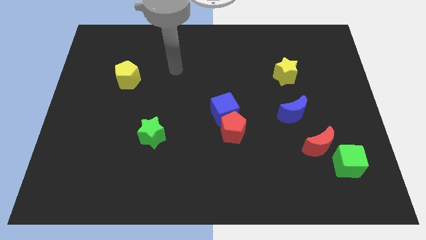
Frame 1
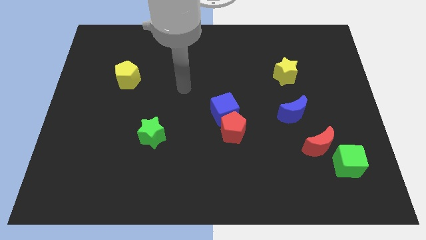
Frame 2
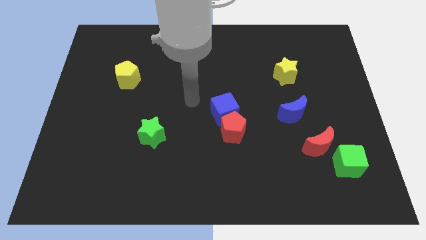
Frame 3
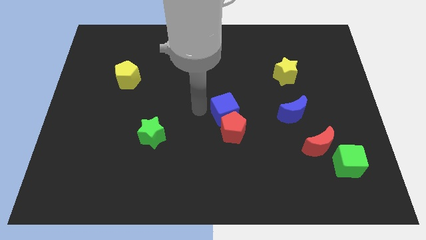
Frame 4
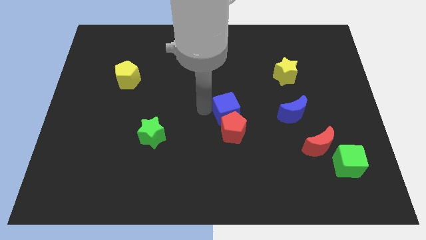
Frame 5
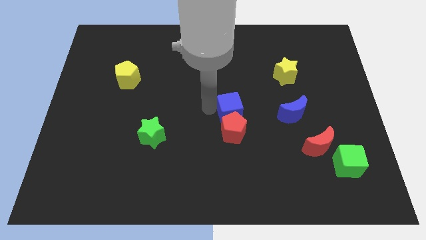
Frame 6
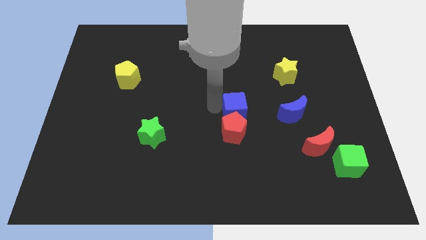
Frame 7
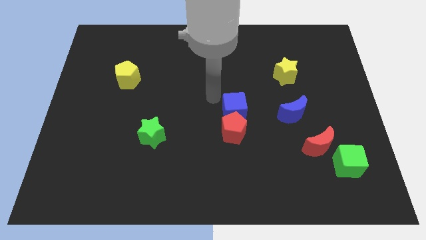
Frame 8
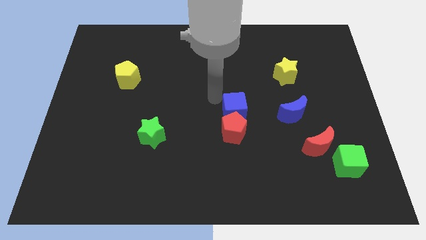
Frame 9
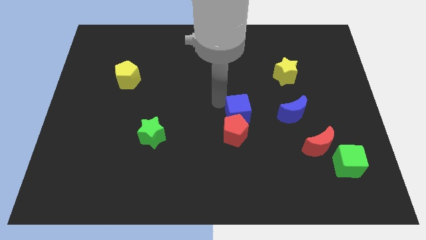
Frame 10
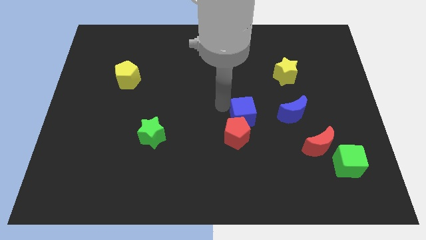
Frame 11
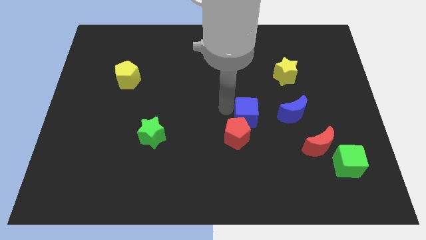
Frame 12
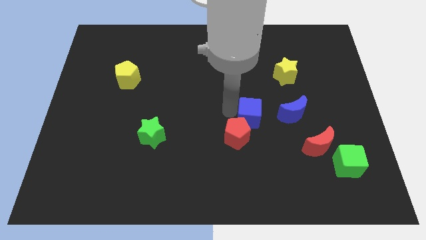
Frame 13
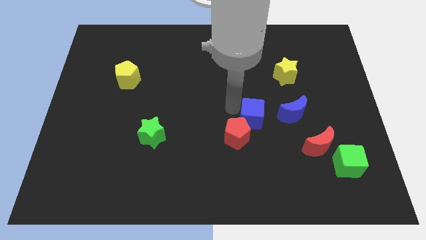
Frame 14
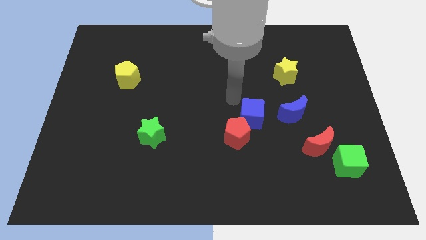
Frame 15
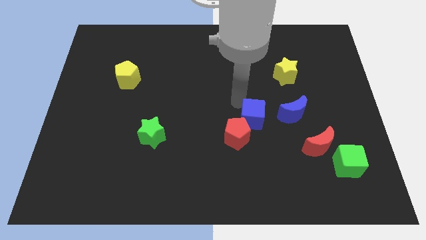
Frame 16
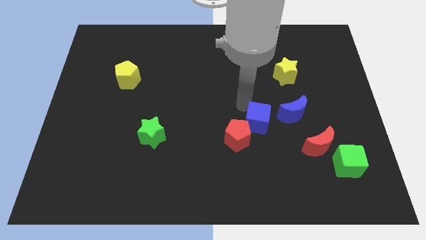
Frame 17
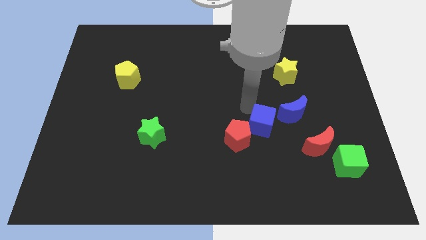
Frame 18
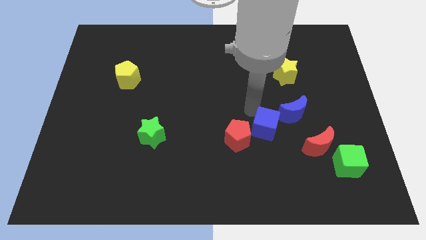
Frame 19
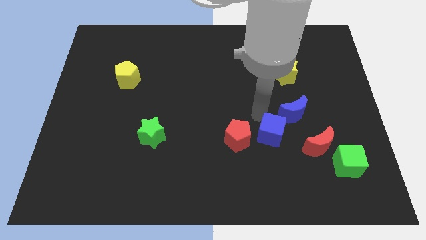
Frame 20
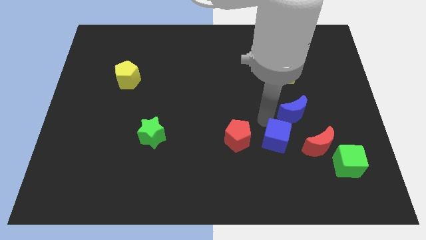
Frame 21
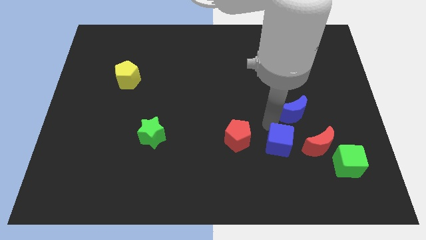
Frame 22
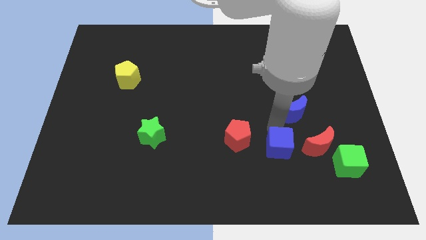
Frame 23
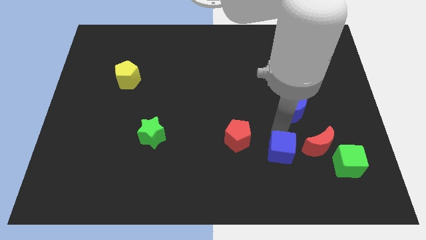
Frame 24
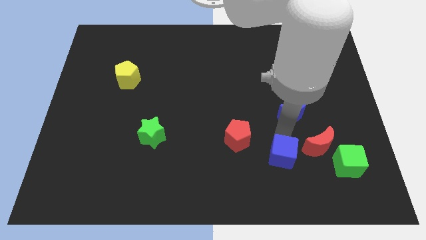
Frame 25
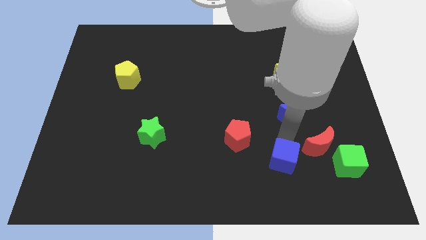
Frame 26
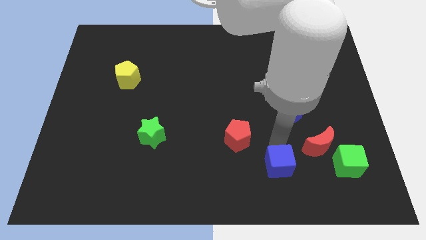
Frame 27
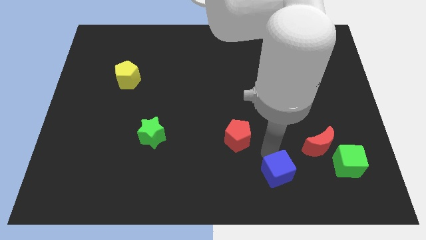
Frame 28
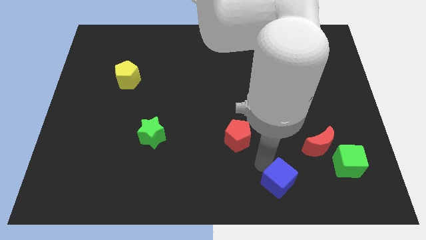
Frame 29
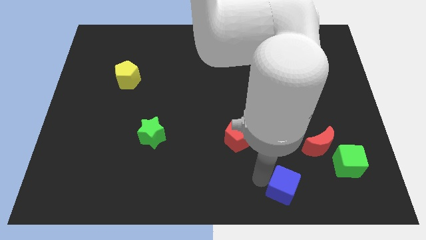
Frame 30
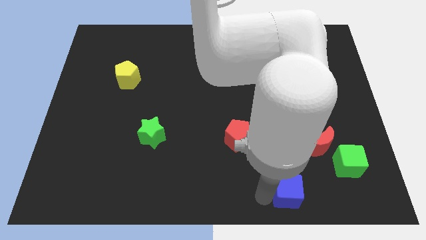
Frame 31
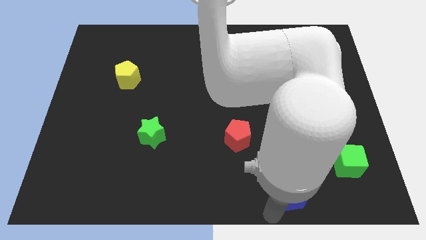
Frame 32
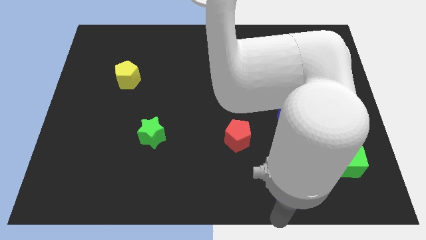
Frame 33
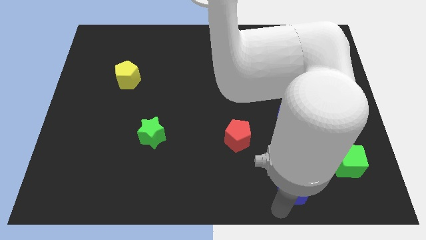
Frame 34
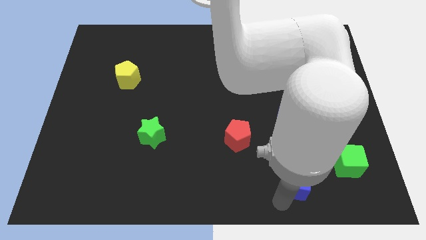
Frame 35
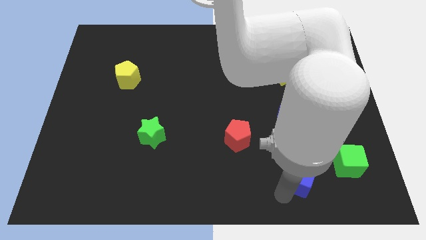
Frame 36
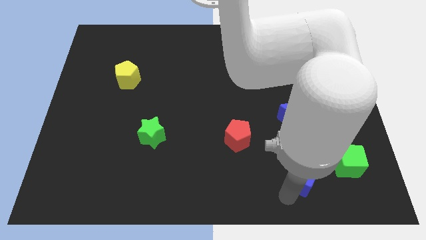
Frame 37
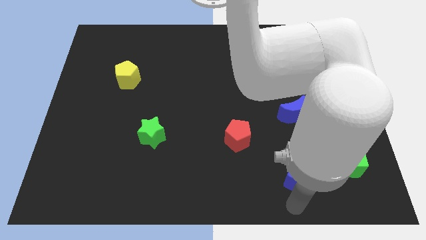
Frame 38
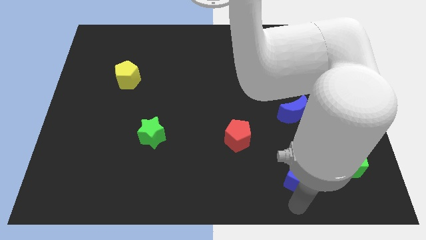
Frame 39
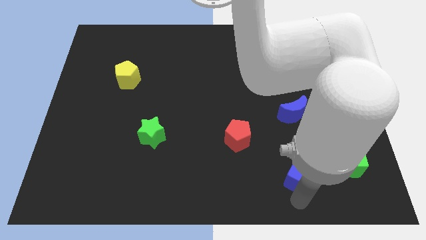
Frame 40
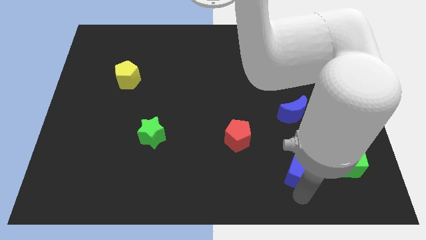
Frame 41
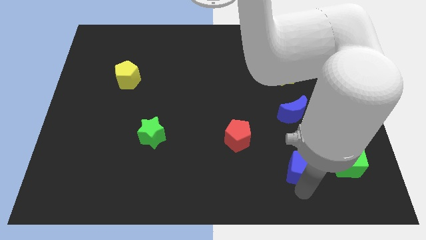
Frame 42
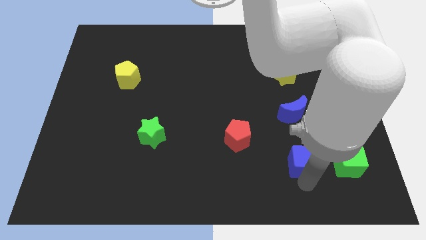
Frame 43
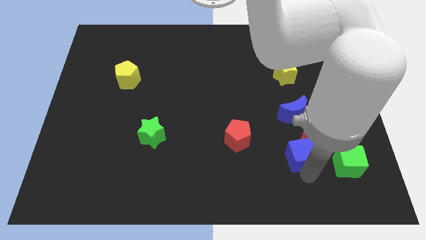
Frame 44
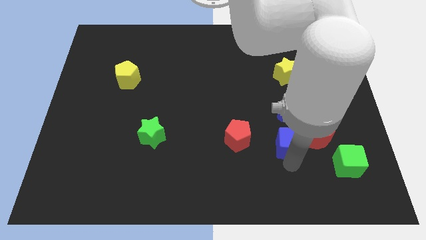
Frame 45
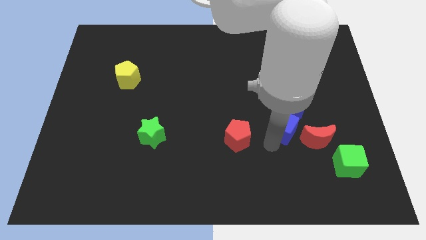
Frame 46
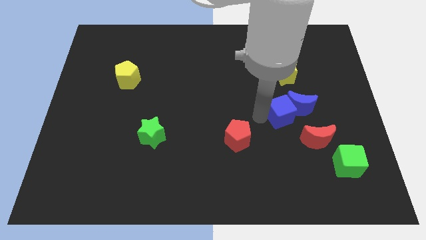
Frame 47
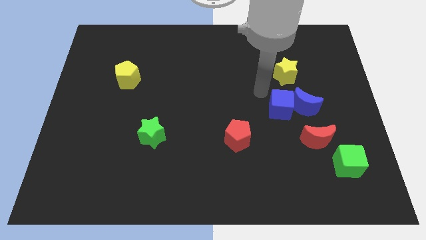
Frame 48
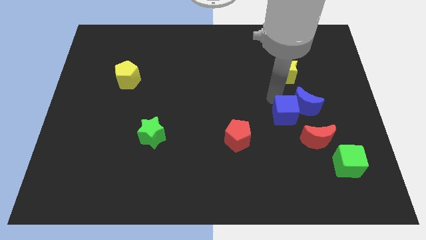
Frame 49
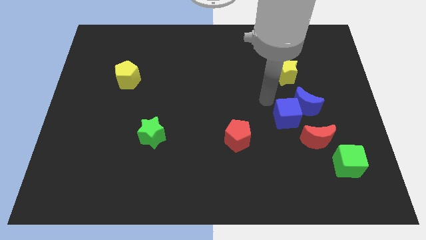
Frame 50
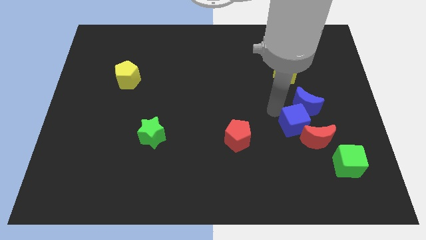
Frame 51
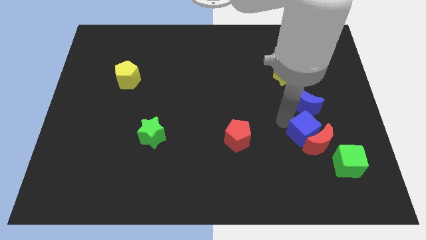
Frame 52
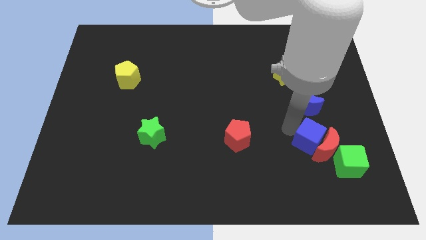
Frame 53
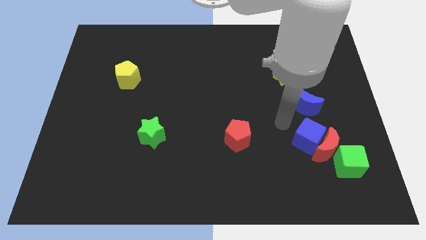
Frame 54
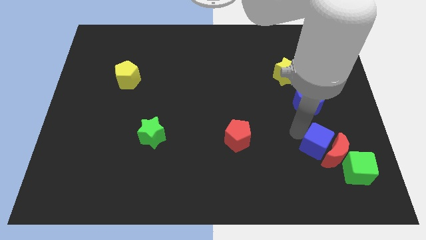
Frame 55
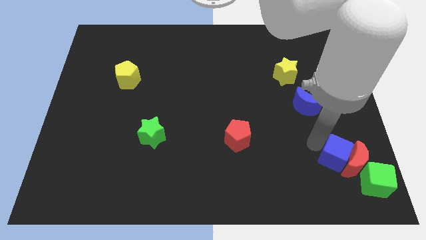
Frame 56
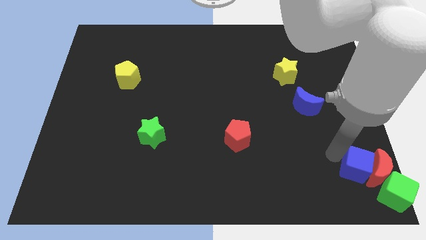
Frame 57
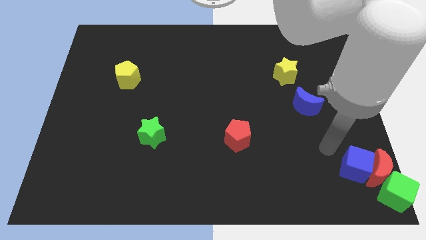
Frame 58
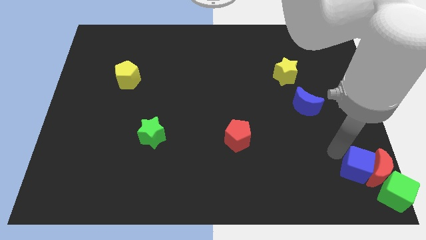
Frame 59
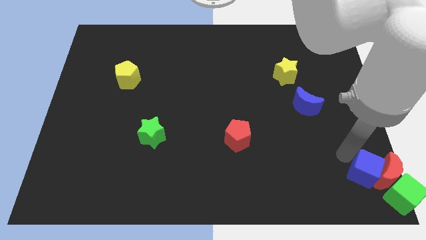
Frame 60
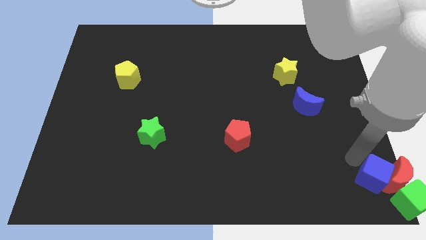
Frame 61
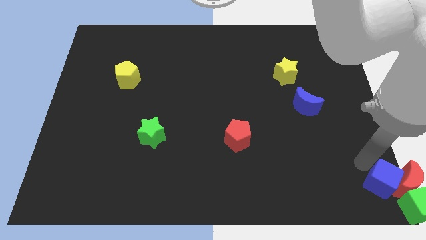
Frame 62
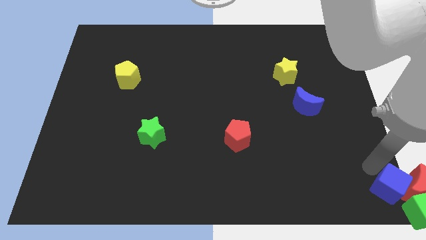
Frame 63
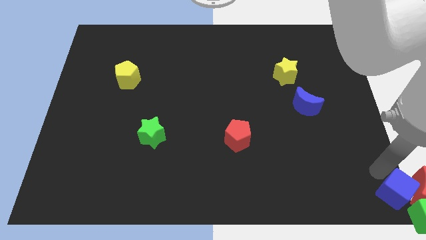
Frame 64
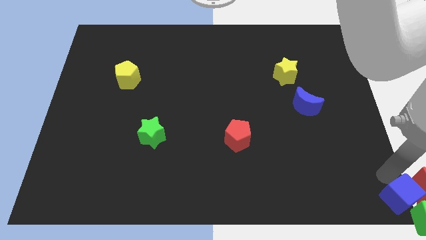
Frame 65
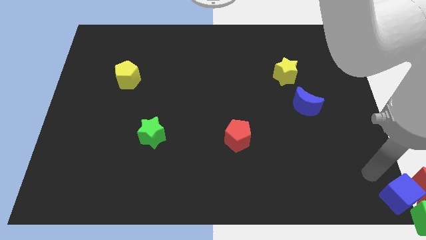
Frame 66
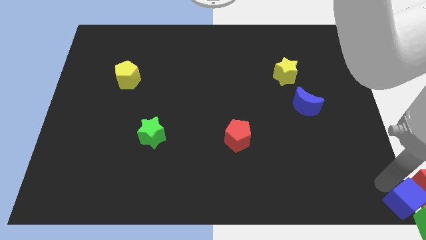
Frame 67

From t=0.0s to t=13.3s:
put the blue cube to the green cube

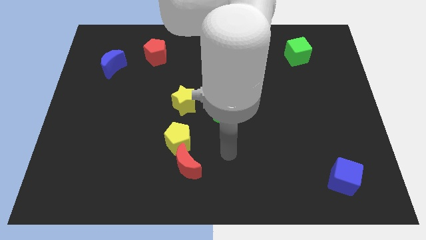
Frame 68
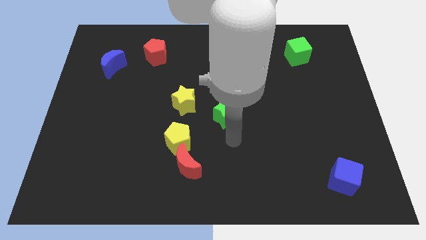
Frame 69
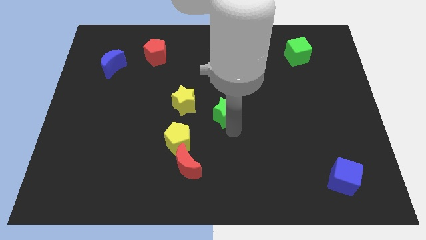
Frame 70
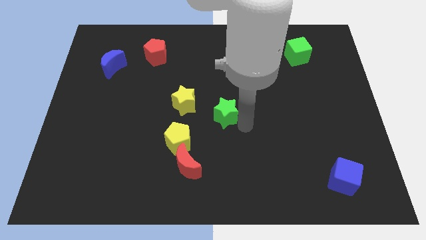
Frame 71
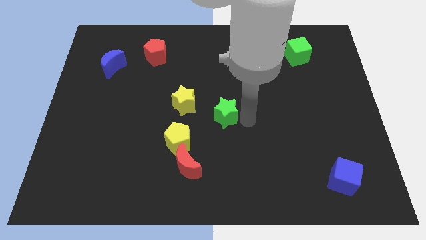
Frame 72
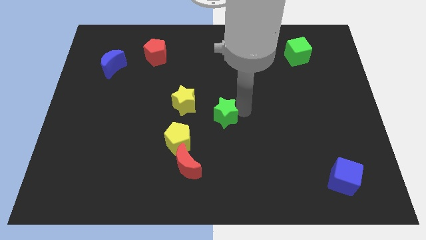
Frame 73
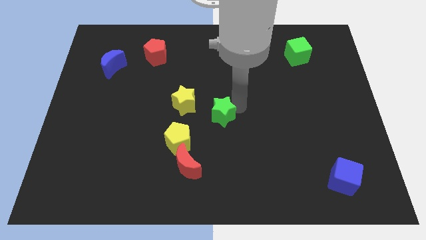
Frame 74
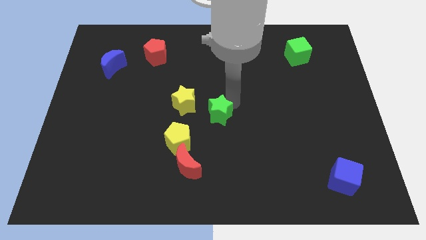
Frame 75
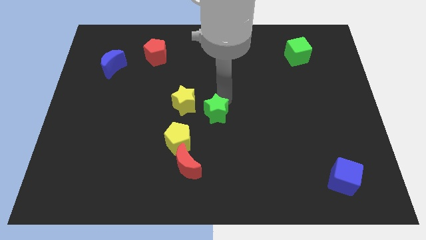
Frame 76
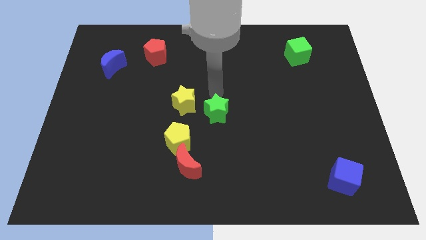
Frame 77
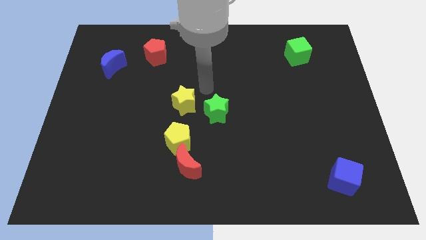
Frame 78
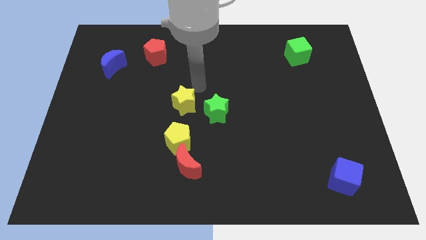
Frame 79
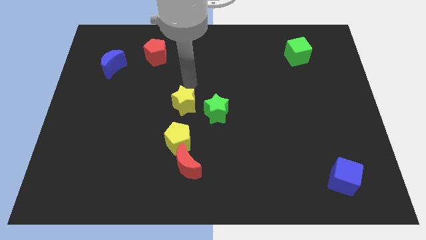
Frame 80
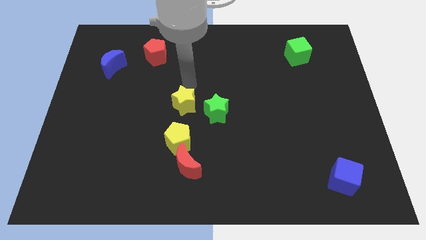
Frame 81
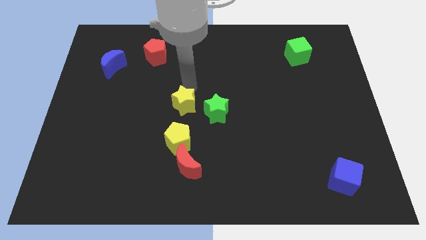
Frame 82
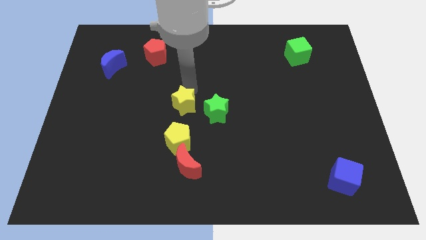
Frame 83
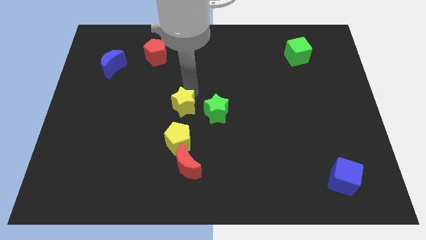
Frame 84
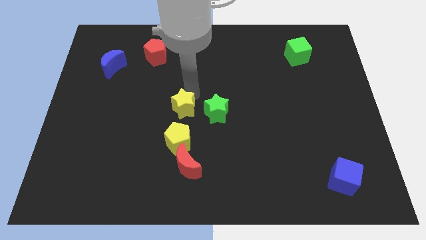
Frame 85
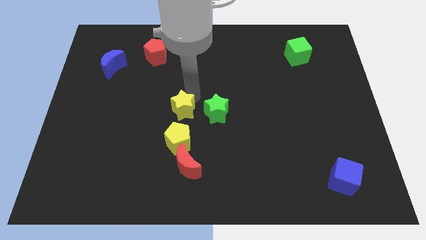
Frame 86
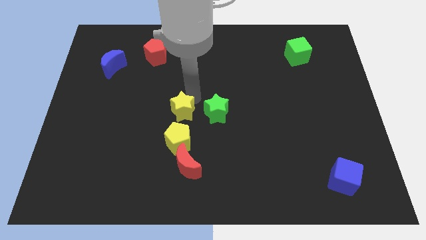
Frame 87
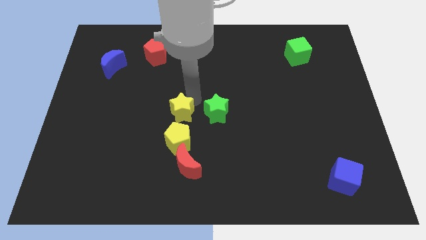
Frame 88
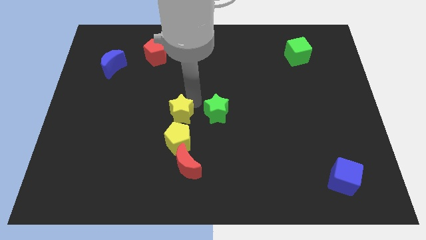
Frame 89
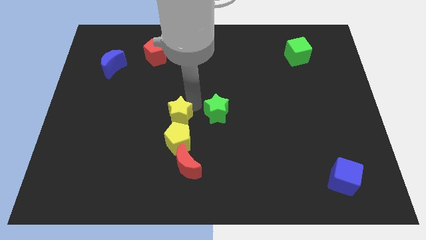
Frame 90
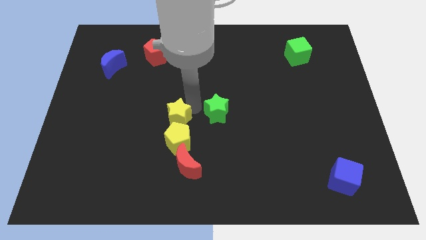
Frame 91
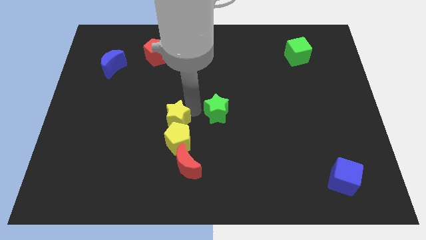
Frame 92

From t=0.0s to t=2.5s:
push the yellow star close to the yellow pentagon
